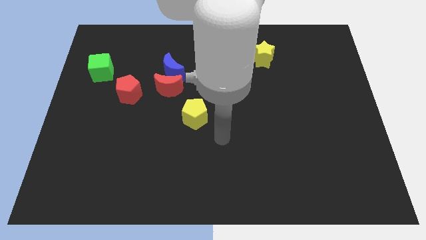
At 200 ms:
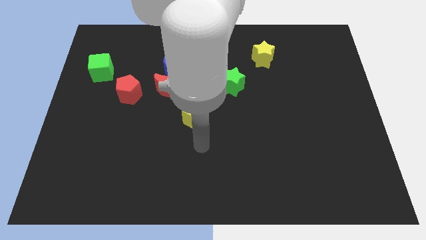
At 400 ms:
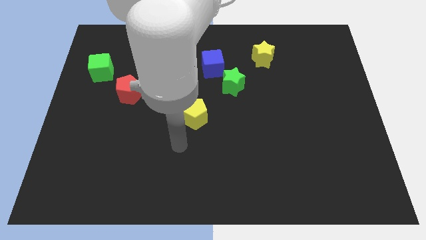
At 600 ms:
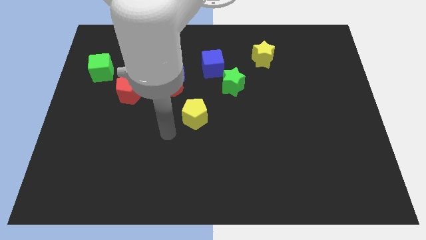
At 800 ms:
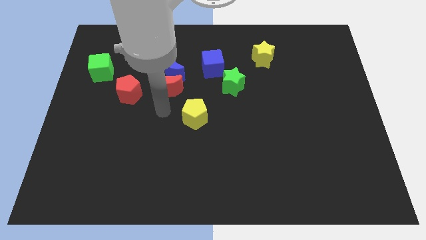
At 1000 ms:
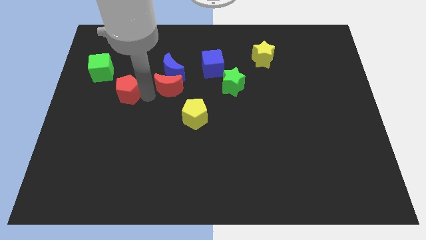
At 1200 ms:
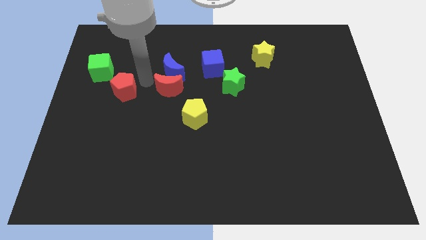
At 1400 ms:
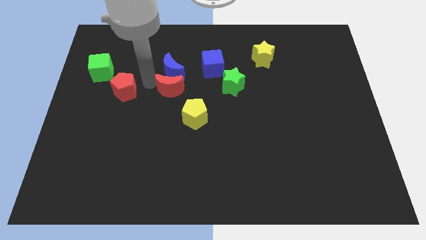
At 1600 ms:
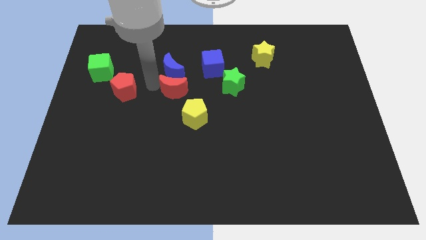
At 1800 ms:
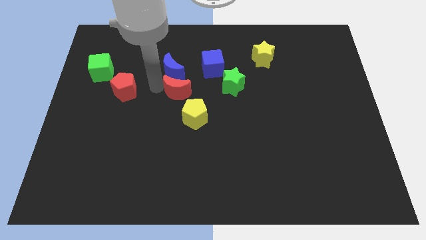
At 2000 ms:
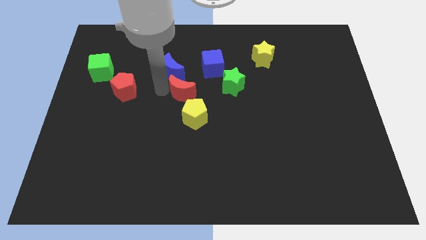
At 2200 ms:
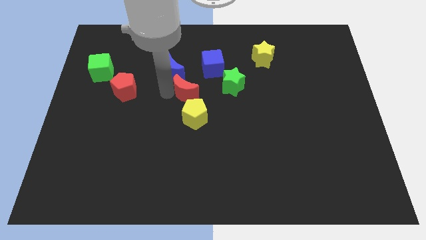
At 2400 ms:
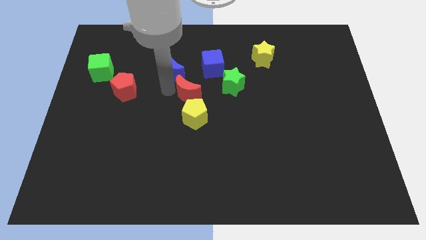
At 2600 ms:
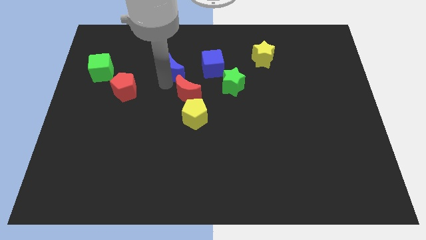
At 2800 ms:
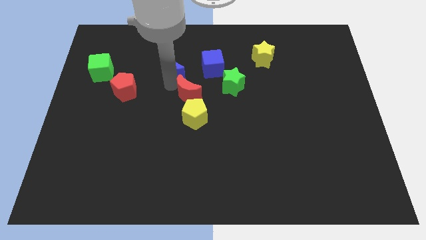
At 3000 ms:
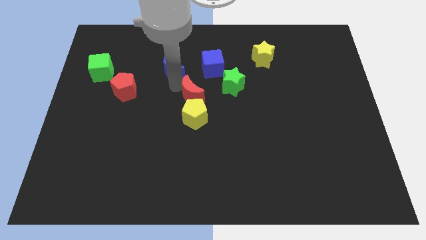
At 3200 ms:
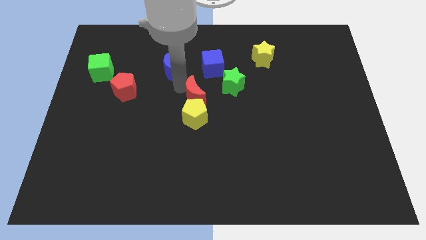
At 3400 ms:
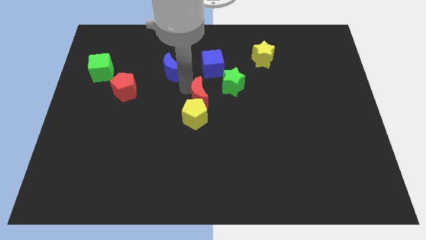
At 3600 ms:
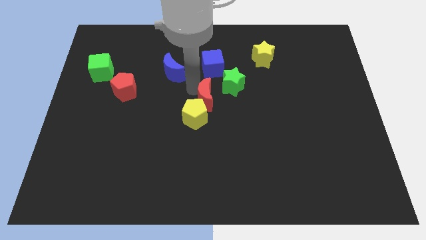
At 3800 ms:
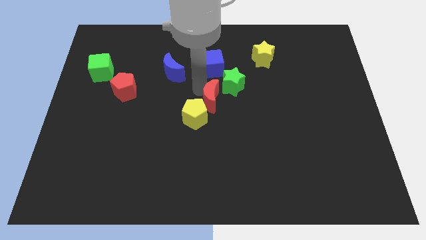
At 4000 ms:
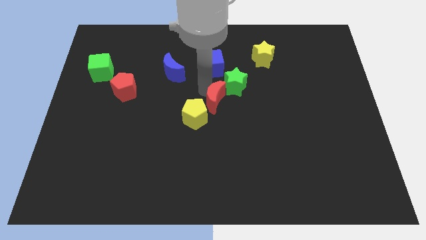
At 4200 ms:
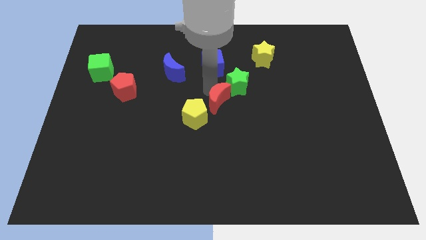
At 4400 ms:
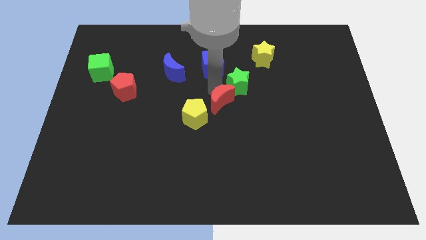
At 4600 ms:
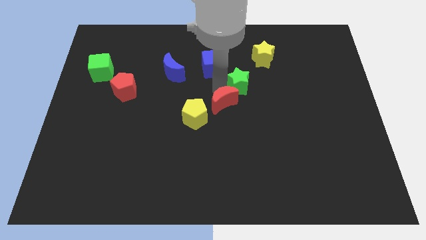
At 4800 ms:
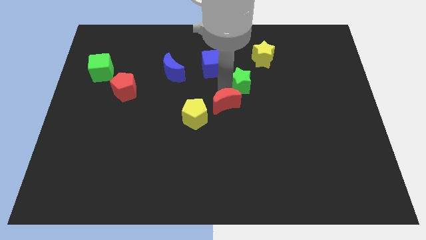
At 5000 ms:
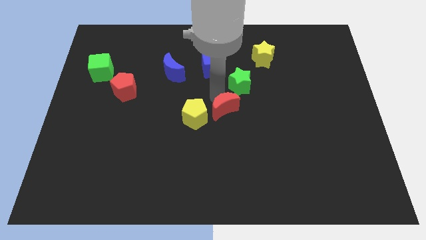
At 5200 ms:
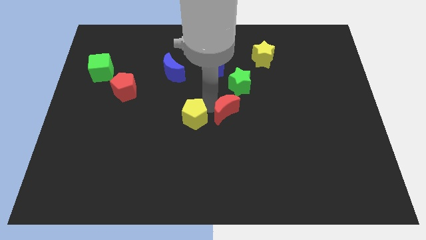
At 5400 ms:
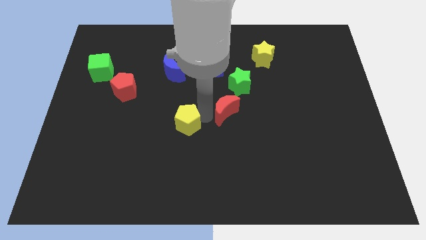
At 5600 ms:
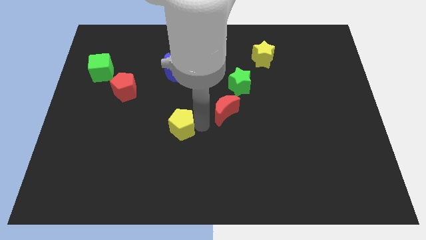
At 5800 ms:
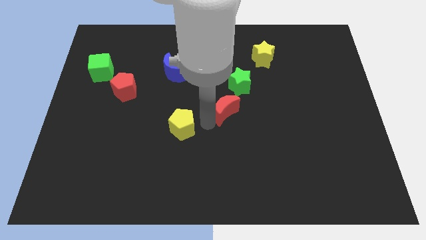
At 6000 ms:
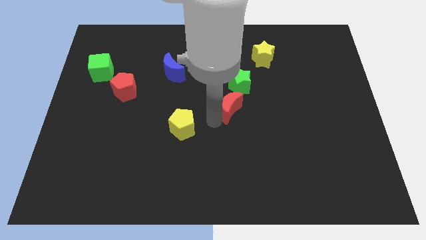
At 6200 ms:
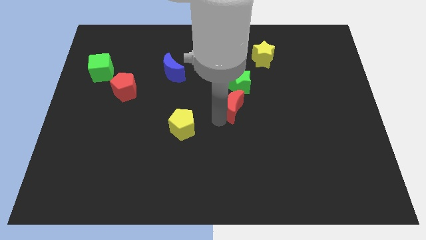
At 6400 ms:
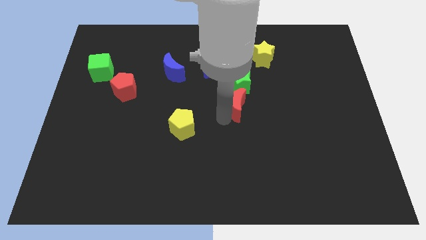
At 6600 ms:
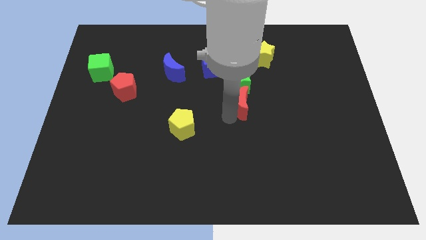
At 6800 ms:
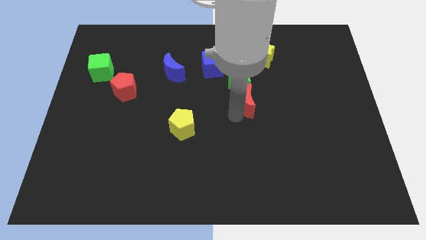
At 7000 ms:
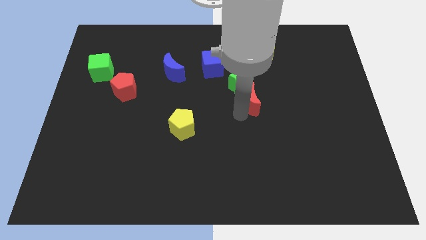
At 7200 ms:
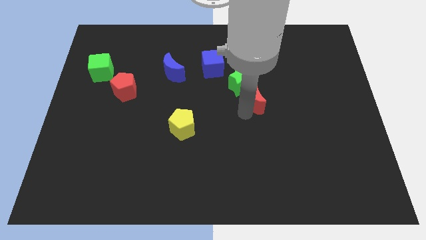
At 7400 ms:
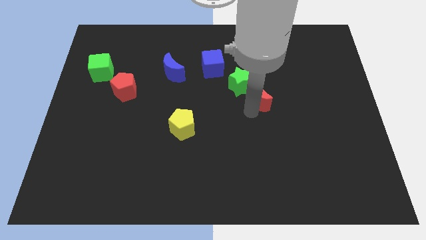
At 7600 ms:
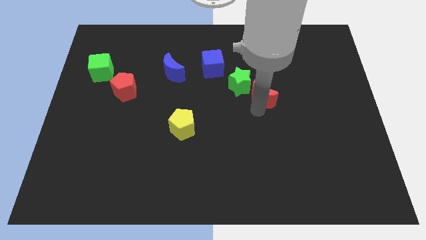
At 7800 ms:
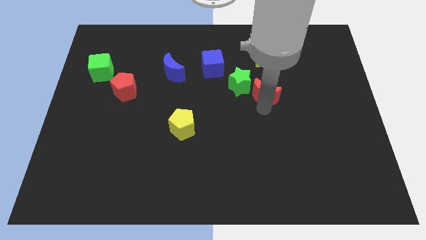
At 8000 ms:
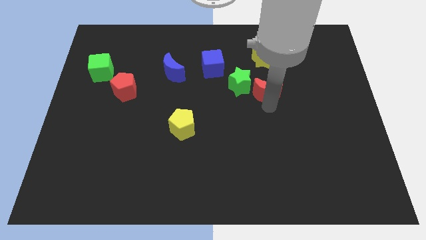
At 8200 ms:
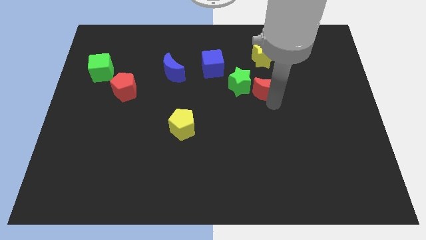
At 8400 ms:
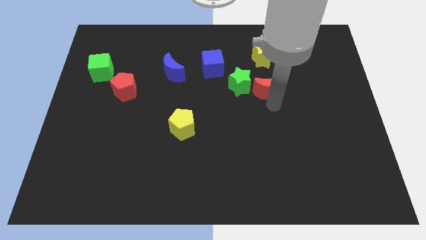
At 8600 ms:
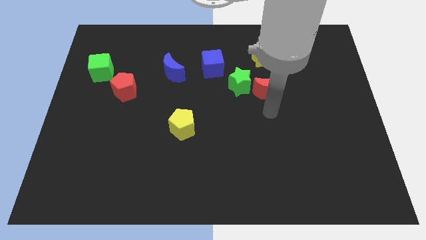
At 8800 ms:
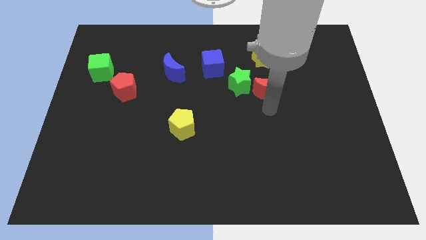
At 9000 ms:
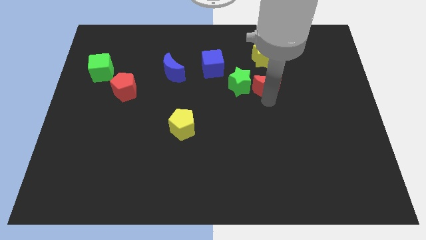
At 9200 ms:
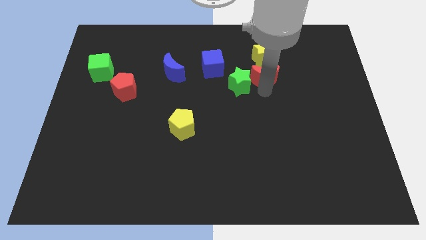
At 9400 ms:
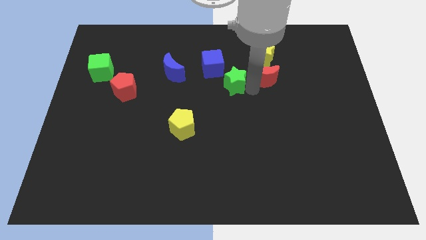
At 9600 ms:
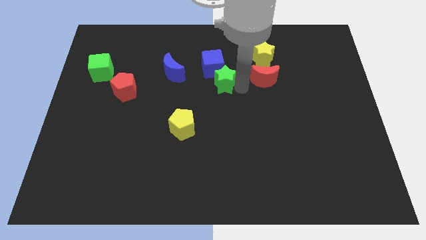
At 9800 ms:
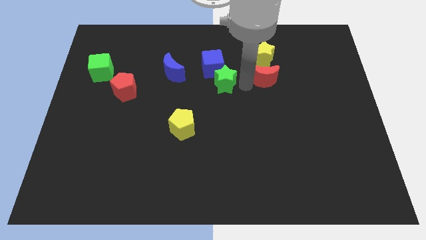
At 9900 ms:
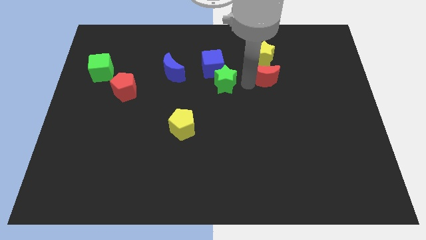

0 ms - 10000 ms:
slide the red moon to the bottom right side of the yellow star
